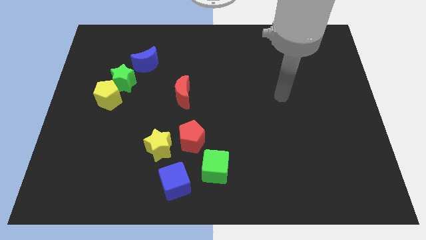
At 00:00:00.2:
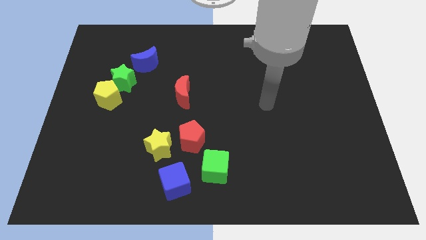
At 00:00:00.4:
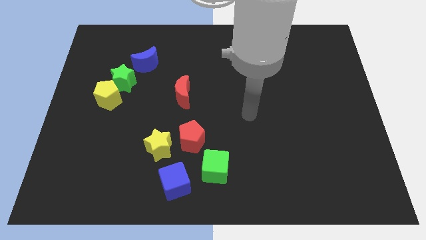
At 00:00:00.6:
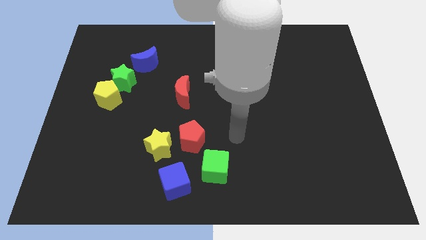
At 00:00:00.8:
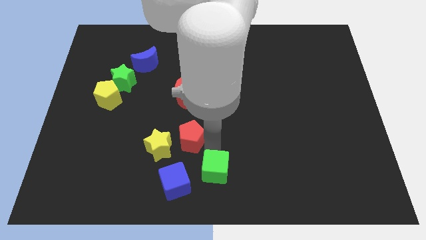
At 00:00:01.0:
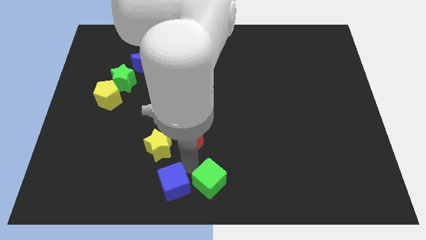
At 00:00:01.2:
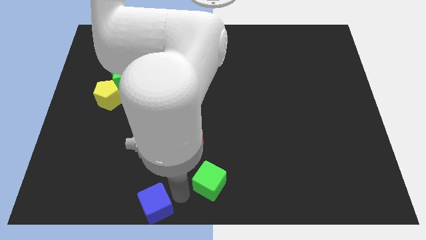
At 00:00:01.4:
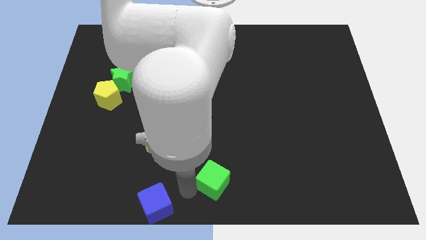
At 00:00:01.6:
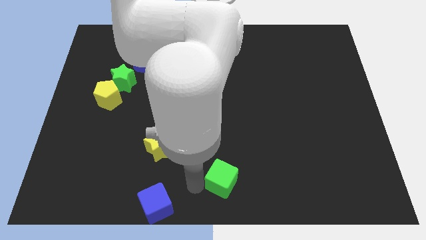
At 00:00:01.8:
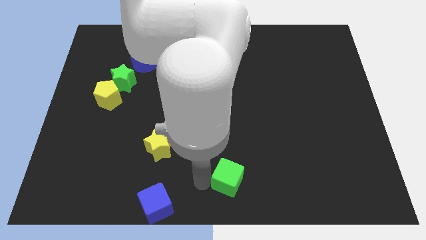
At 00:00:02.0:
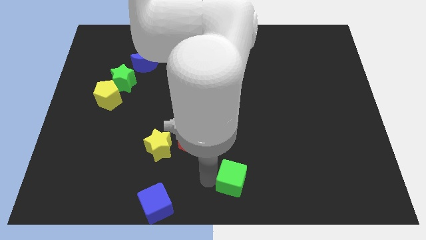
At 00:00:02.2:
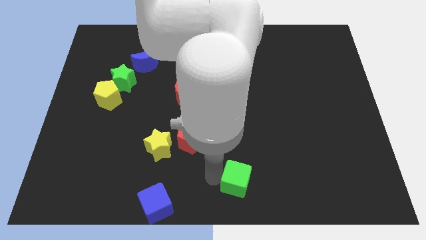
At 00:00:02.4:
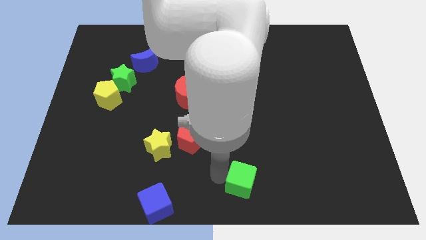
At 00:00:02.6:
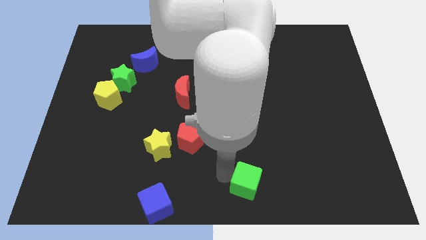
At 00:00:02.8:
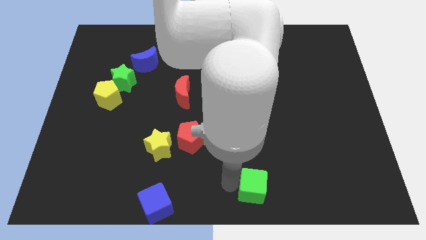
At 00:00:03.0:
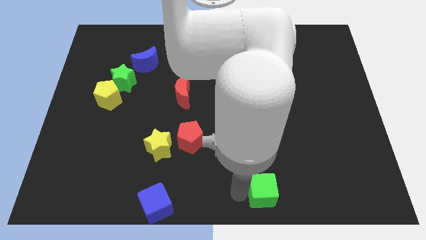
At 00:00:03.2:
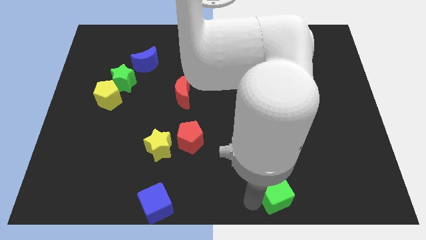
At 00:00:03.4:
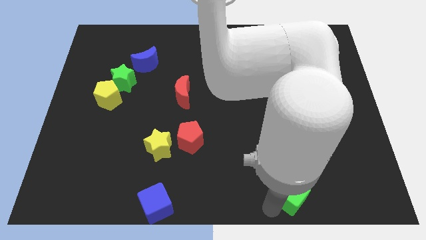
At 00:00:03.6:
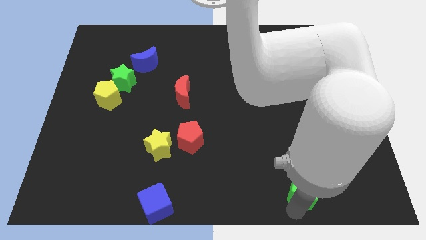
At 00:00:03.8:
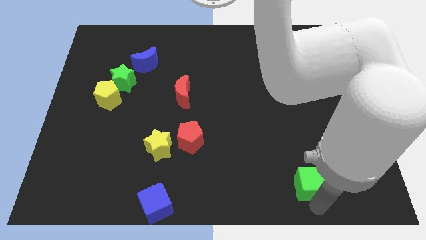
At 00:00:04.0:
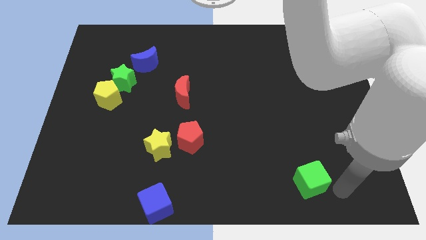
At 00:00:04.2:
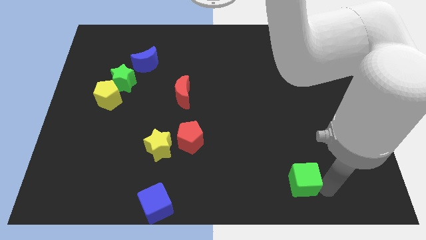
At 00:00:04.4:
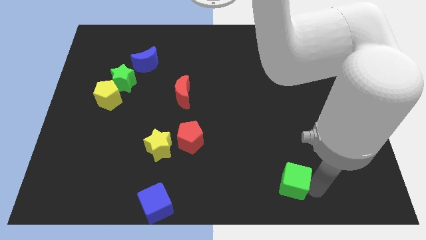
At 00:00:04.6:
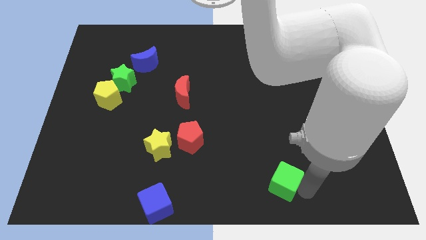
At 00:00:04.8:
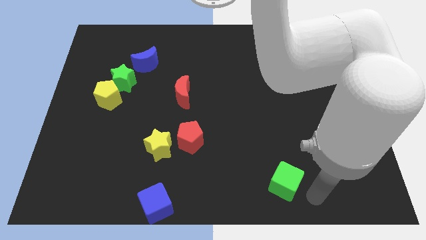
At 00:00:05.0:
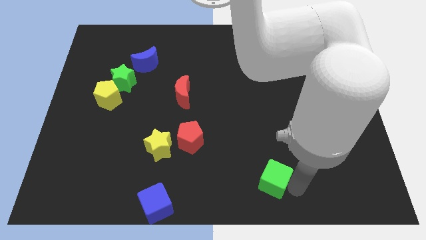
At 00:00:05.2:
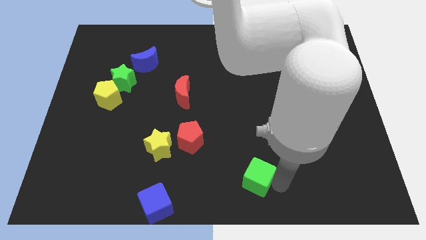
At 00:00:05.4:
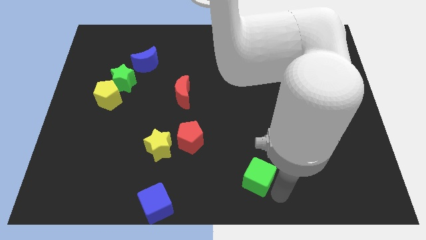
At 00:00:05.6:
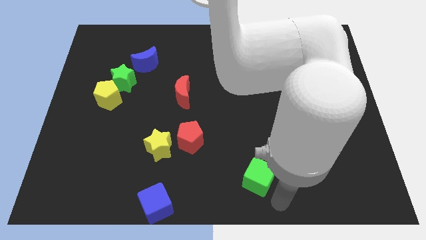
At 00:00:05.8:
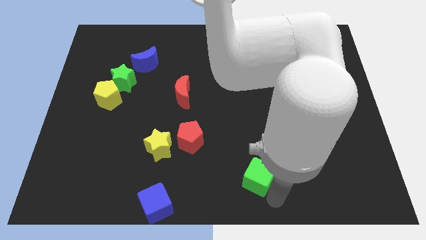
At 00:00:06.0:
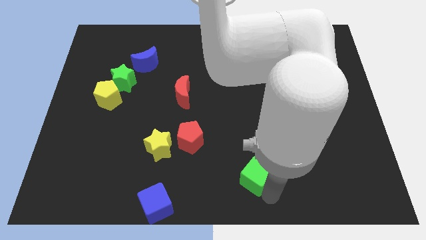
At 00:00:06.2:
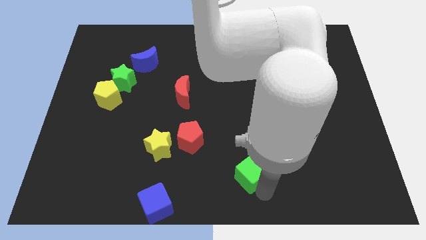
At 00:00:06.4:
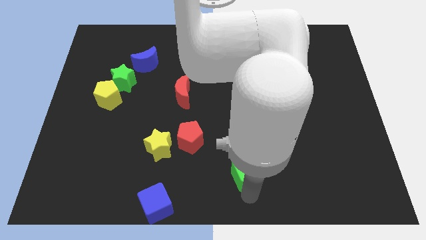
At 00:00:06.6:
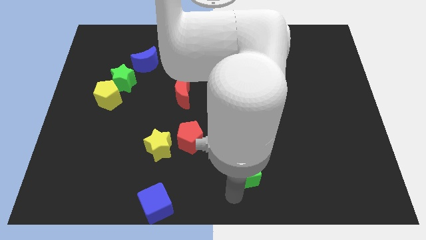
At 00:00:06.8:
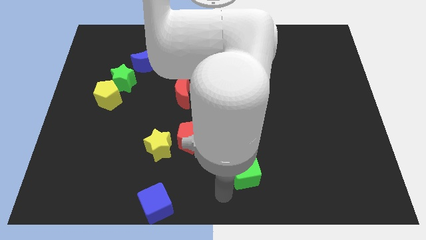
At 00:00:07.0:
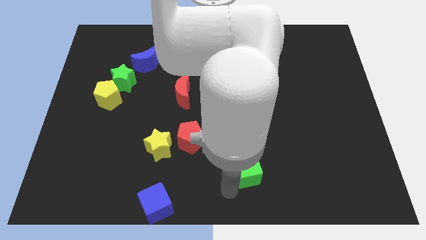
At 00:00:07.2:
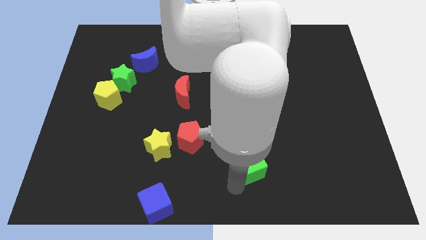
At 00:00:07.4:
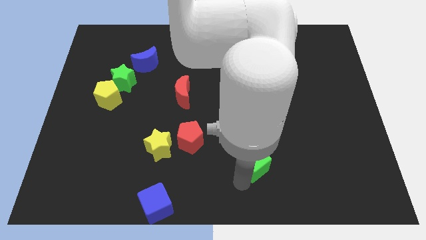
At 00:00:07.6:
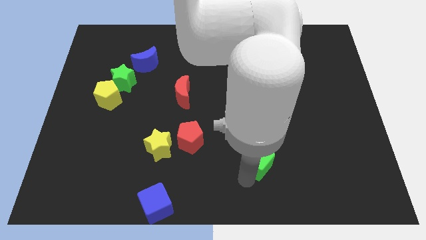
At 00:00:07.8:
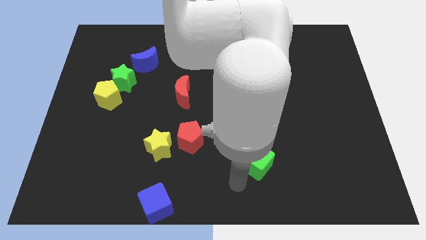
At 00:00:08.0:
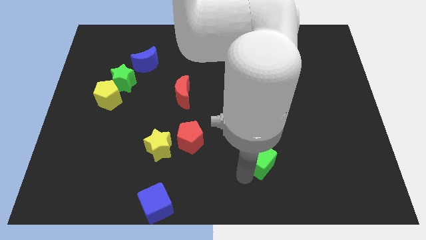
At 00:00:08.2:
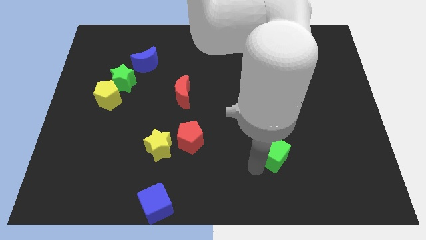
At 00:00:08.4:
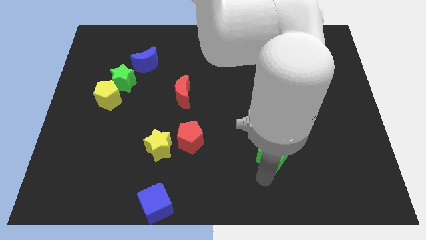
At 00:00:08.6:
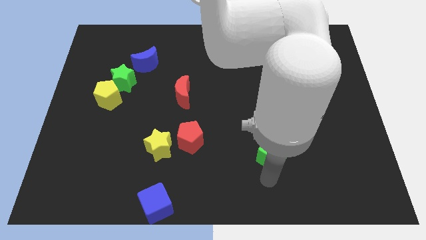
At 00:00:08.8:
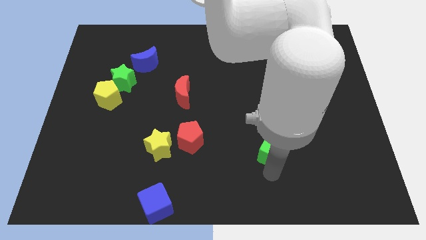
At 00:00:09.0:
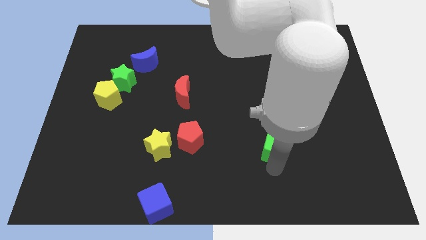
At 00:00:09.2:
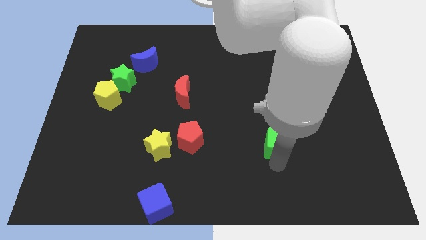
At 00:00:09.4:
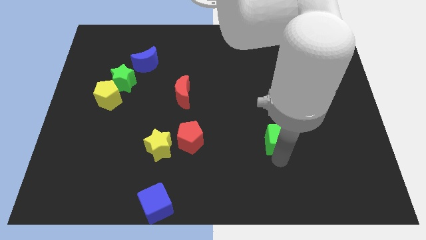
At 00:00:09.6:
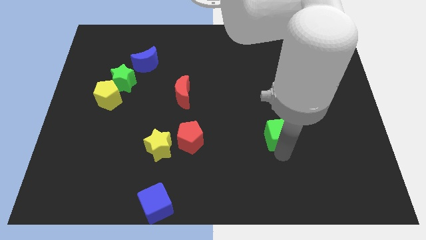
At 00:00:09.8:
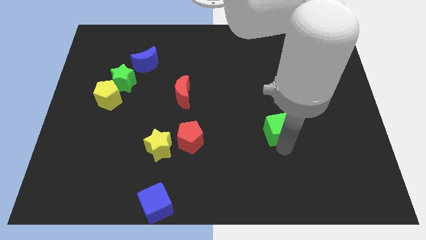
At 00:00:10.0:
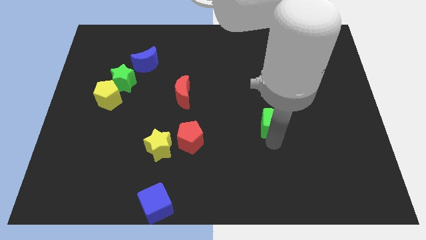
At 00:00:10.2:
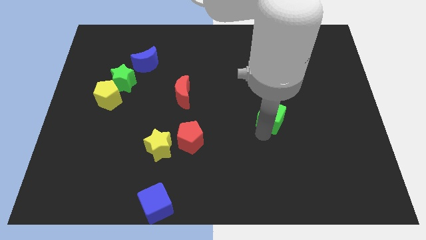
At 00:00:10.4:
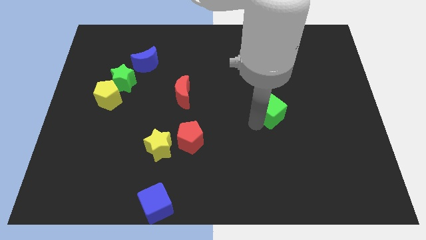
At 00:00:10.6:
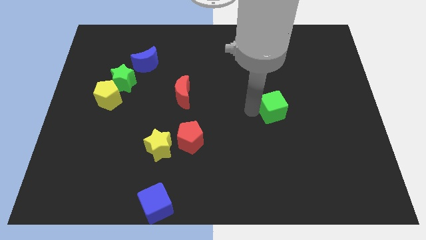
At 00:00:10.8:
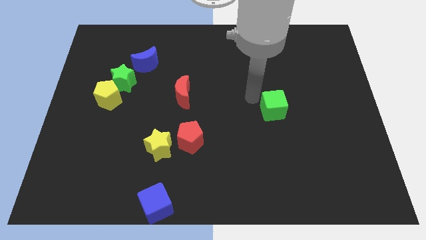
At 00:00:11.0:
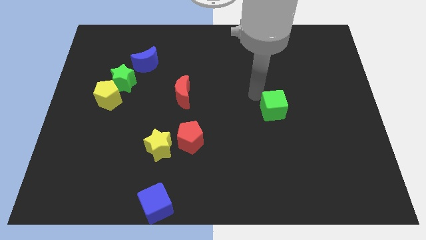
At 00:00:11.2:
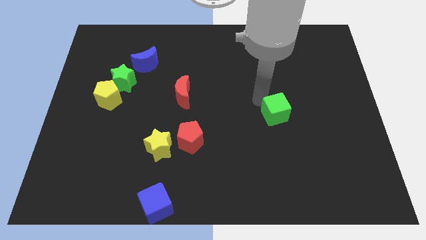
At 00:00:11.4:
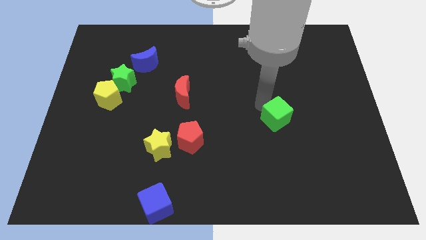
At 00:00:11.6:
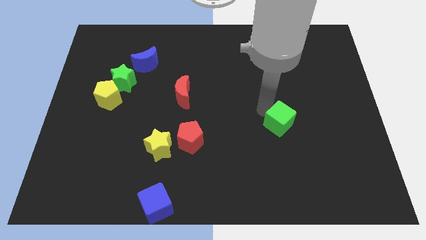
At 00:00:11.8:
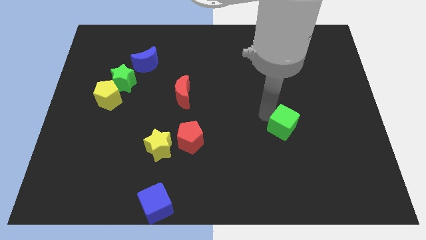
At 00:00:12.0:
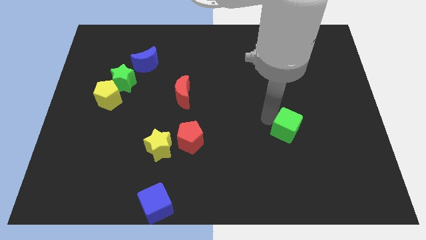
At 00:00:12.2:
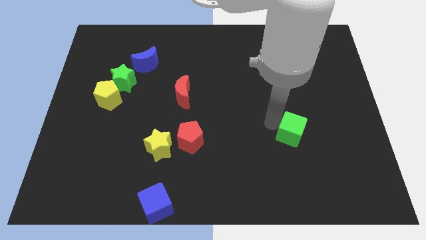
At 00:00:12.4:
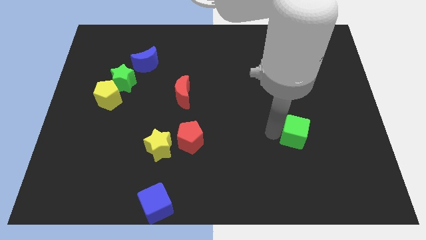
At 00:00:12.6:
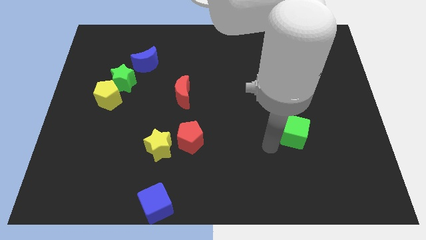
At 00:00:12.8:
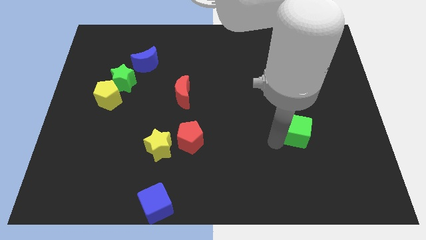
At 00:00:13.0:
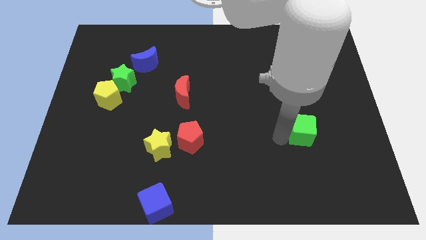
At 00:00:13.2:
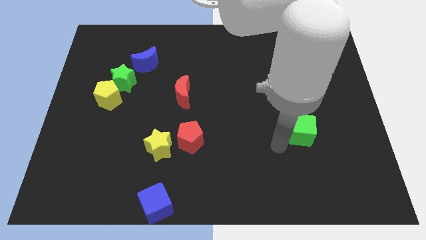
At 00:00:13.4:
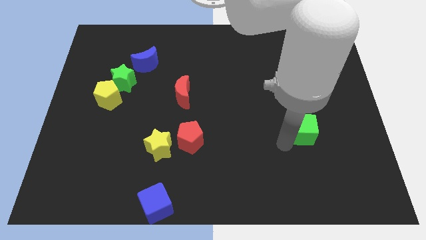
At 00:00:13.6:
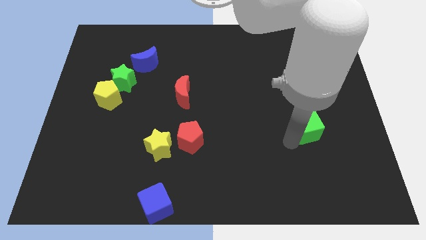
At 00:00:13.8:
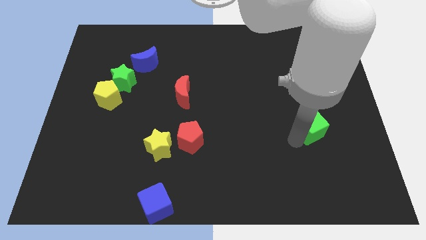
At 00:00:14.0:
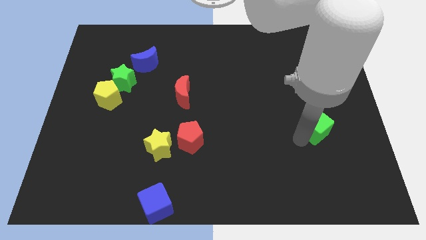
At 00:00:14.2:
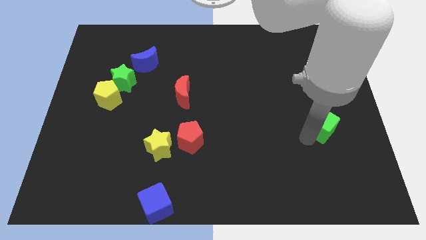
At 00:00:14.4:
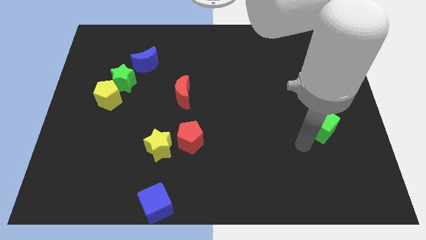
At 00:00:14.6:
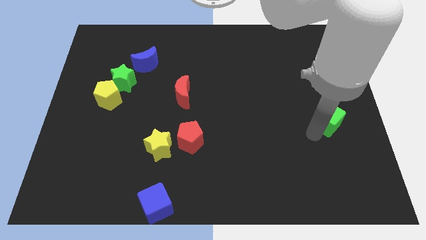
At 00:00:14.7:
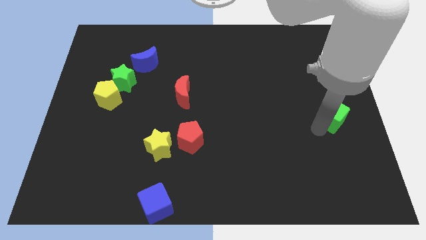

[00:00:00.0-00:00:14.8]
move the green cube to the right side of the board
